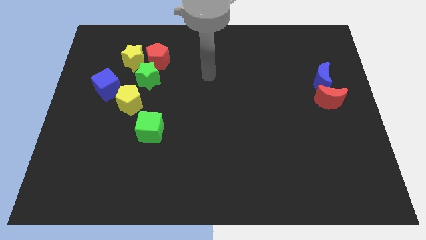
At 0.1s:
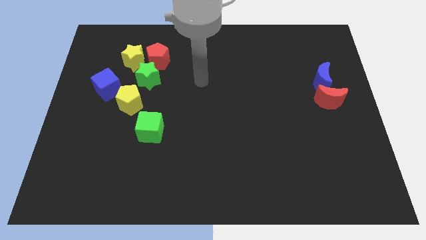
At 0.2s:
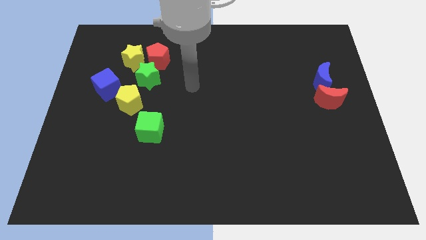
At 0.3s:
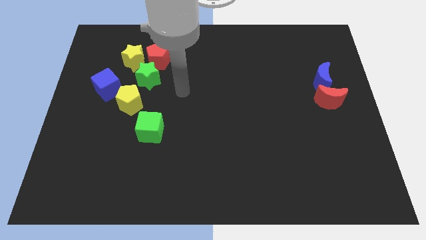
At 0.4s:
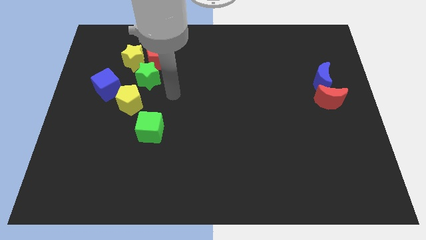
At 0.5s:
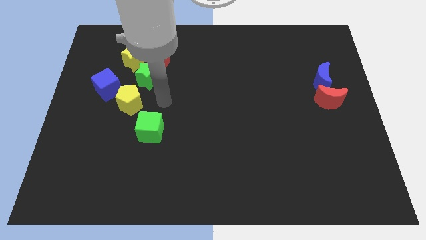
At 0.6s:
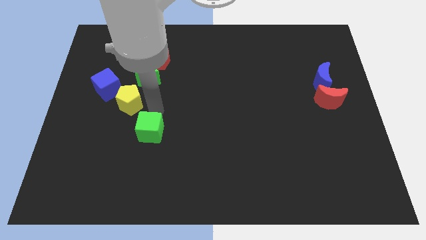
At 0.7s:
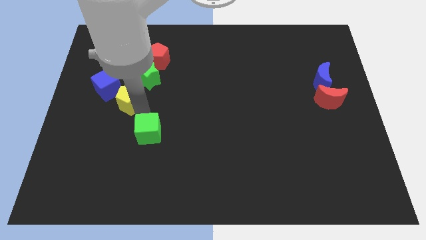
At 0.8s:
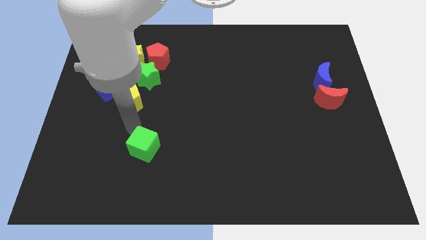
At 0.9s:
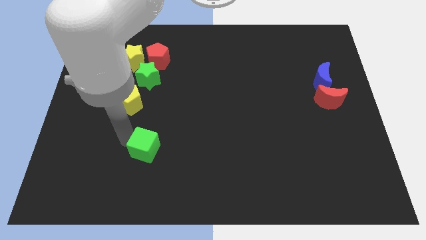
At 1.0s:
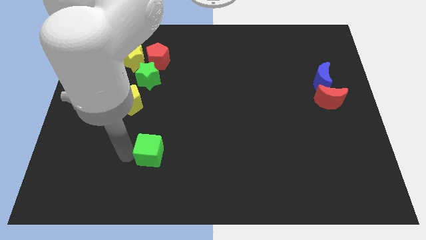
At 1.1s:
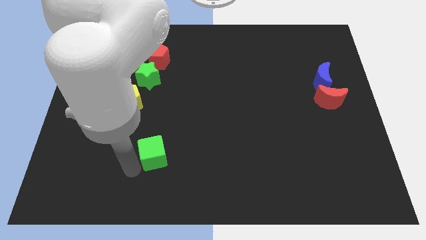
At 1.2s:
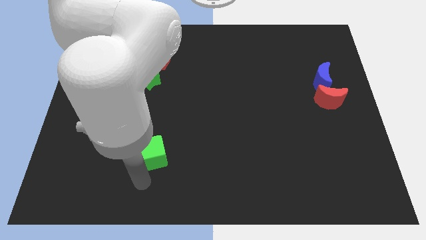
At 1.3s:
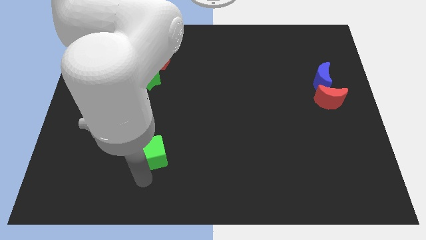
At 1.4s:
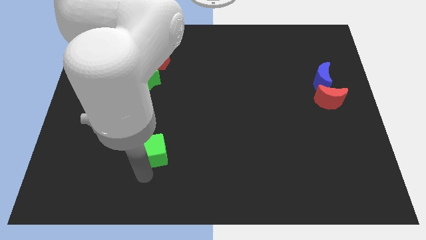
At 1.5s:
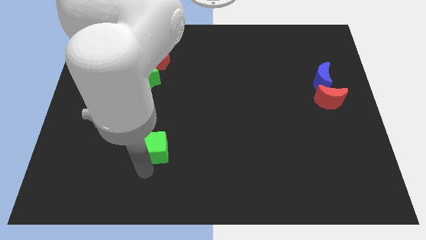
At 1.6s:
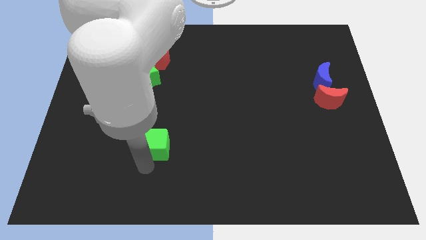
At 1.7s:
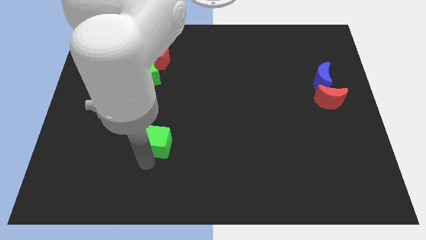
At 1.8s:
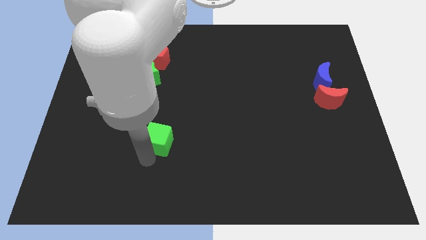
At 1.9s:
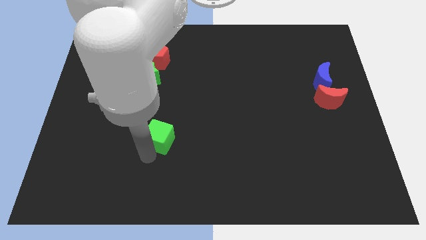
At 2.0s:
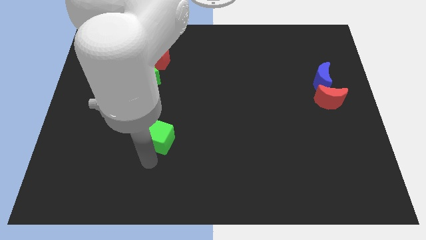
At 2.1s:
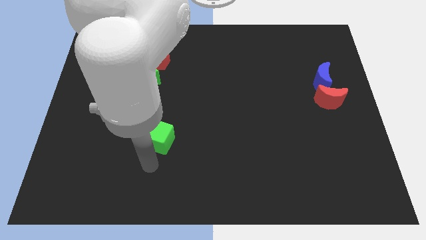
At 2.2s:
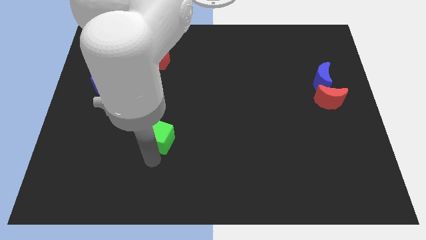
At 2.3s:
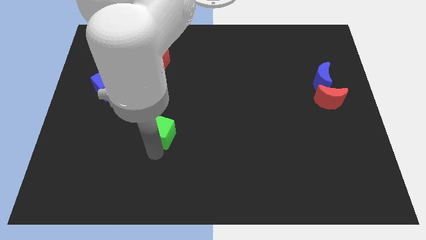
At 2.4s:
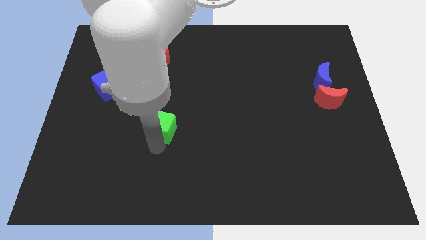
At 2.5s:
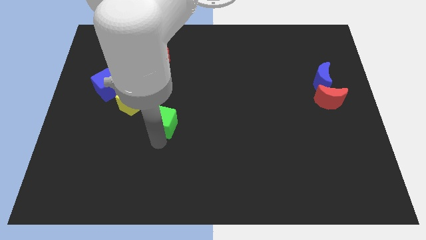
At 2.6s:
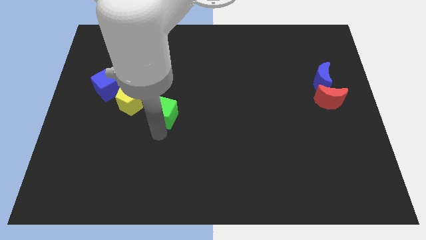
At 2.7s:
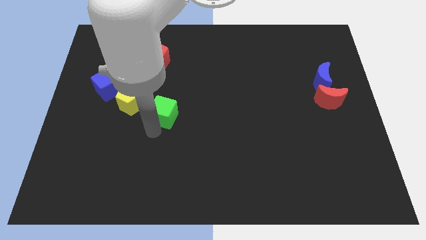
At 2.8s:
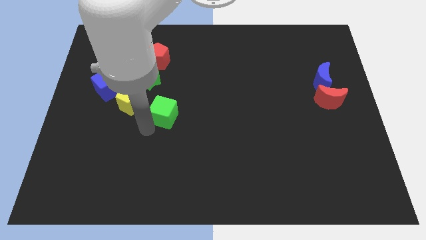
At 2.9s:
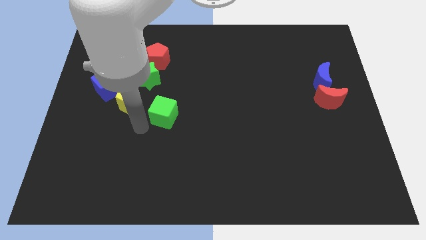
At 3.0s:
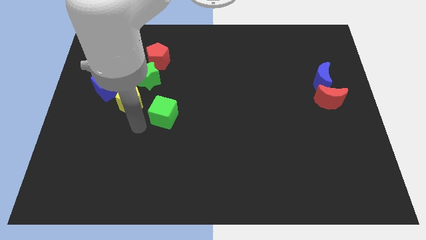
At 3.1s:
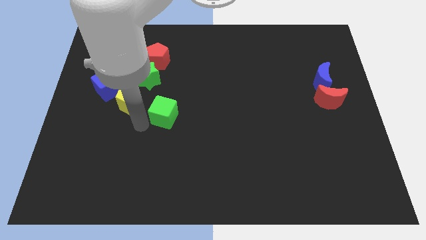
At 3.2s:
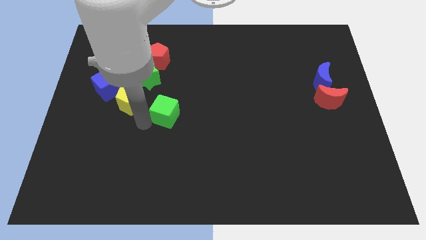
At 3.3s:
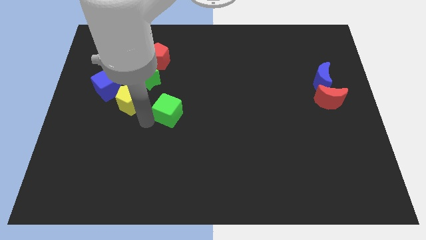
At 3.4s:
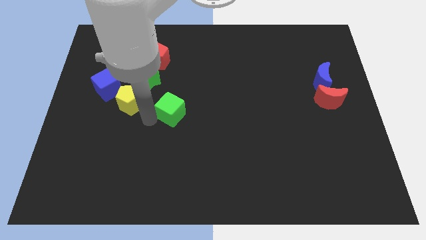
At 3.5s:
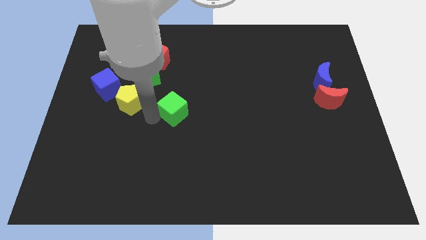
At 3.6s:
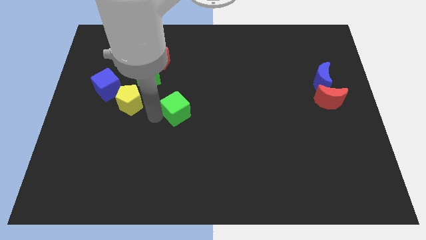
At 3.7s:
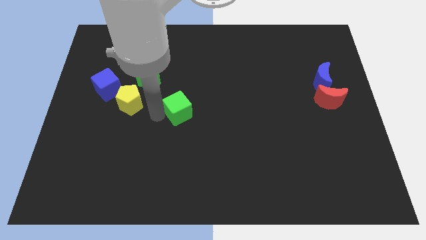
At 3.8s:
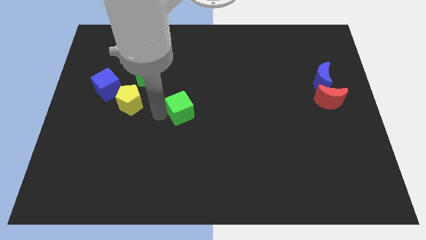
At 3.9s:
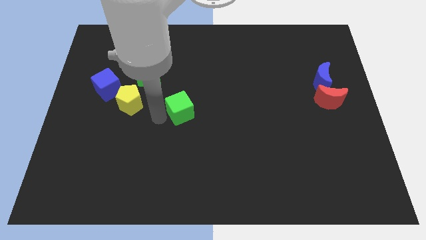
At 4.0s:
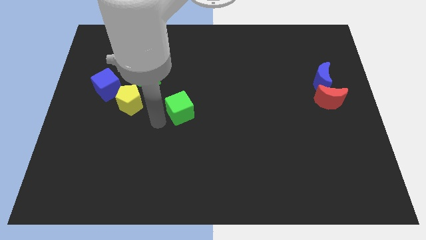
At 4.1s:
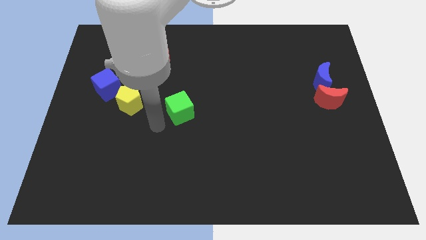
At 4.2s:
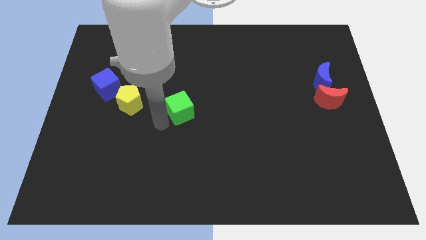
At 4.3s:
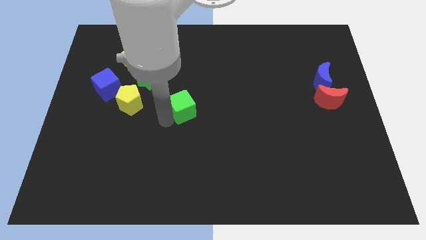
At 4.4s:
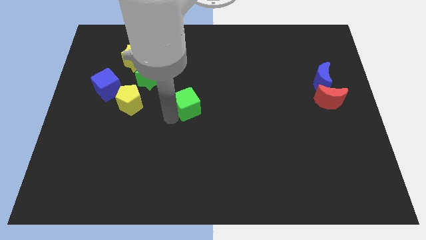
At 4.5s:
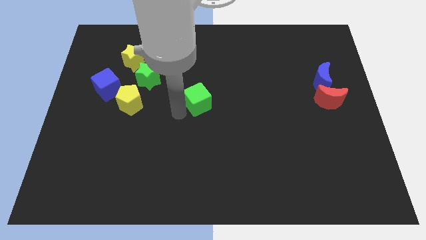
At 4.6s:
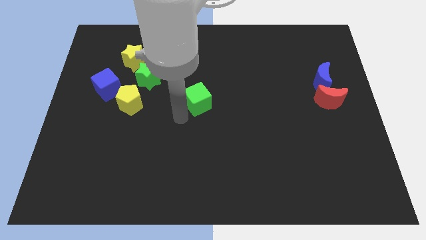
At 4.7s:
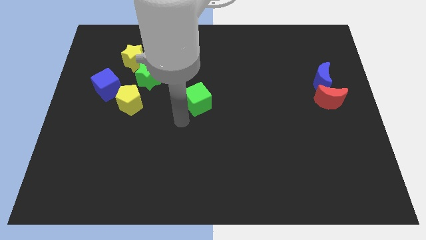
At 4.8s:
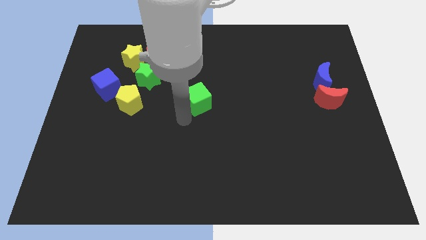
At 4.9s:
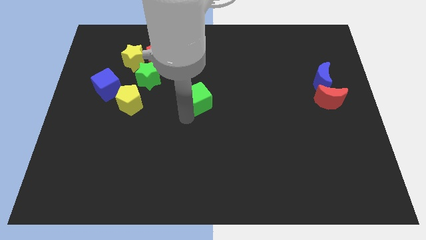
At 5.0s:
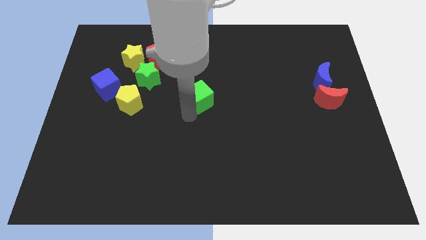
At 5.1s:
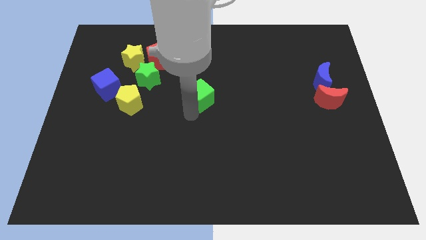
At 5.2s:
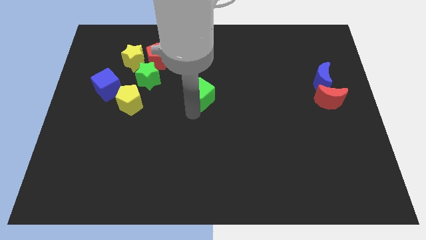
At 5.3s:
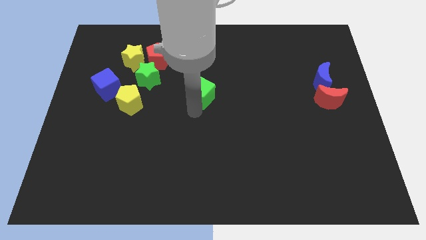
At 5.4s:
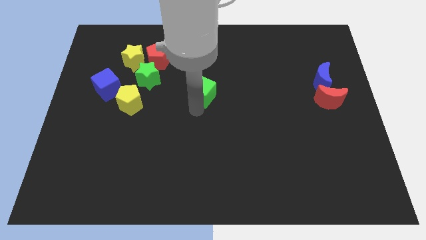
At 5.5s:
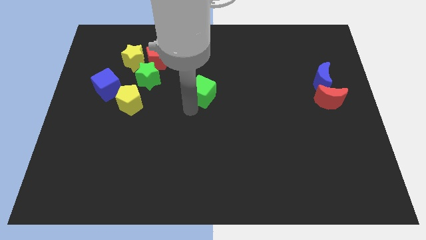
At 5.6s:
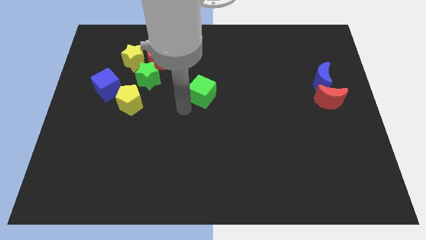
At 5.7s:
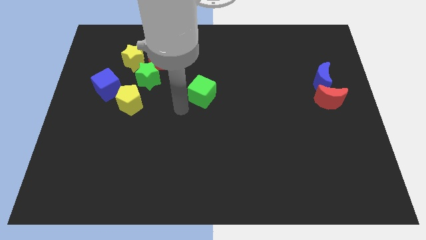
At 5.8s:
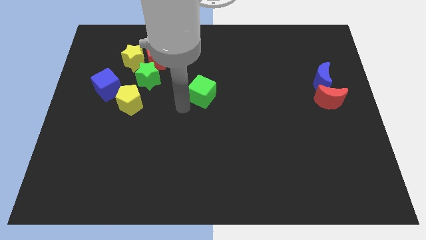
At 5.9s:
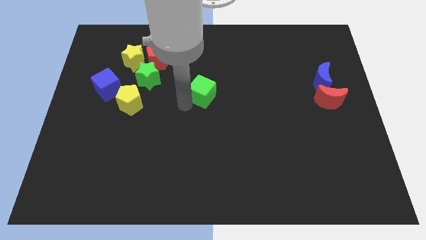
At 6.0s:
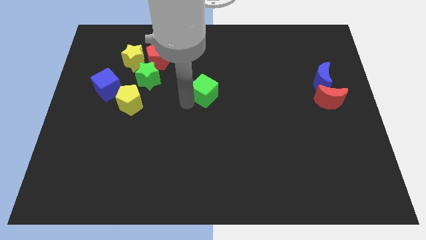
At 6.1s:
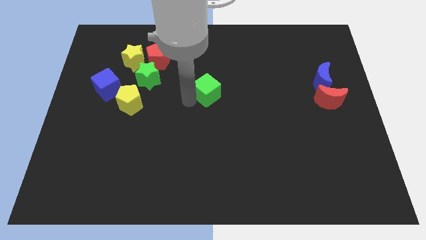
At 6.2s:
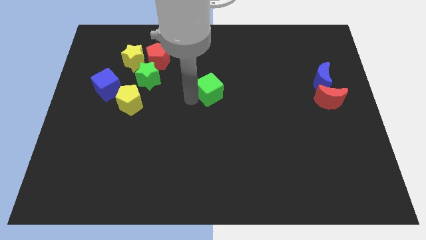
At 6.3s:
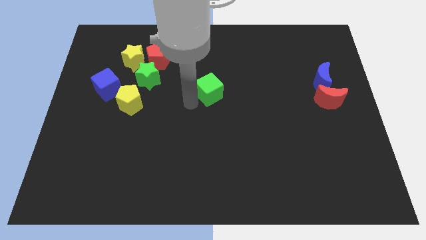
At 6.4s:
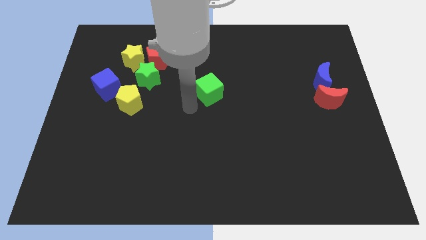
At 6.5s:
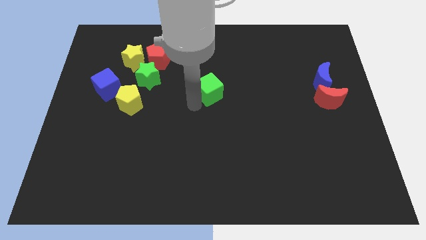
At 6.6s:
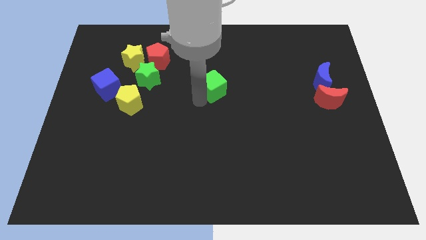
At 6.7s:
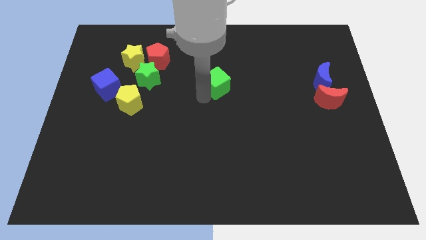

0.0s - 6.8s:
push the green cube up and to the right

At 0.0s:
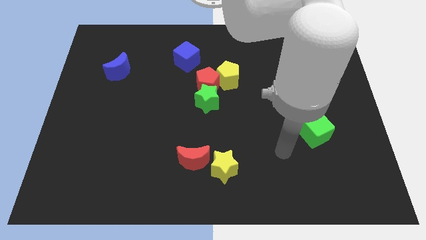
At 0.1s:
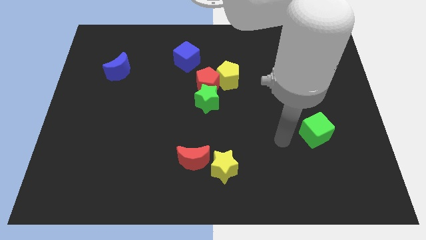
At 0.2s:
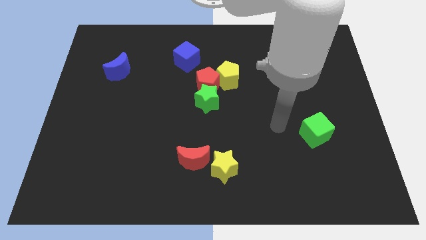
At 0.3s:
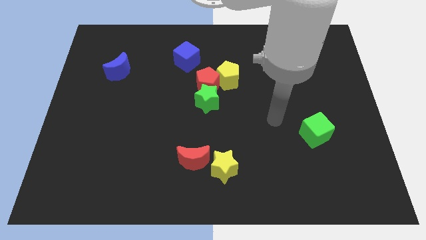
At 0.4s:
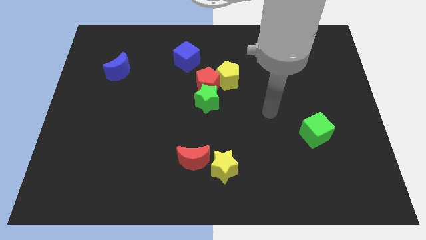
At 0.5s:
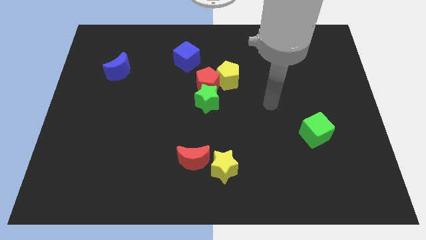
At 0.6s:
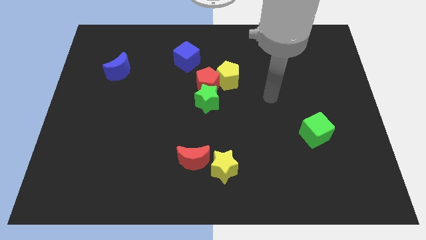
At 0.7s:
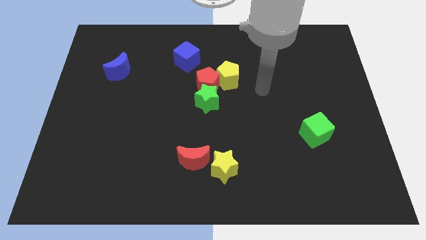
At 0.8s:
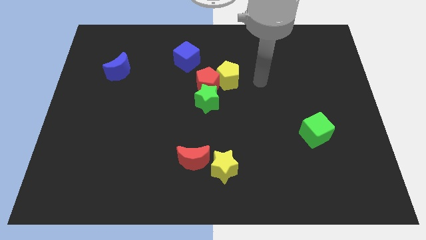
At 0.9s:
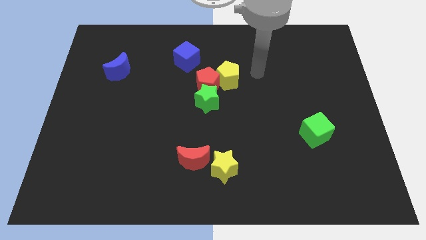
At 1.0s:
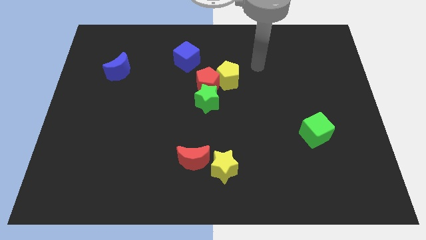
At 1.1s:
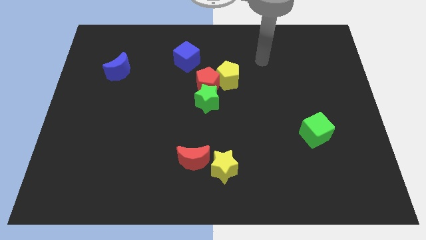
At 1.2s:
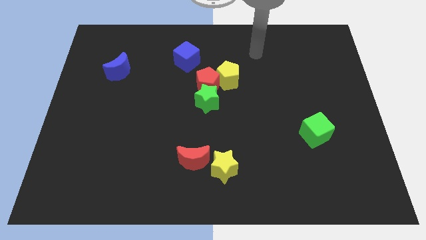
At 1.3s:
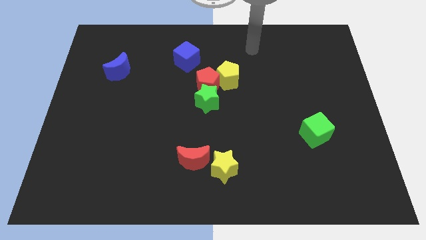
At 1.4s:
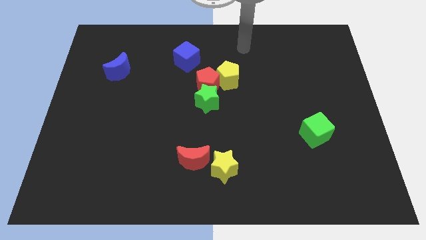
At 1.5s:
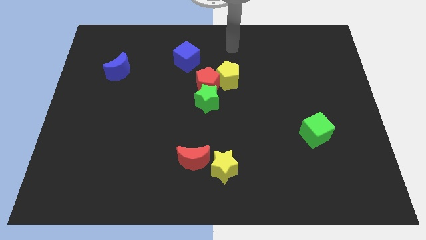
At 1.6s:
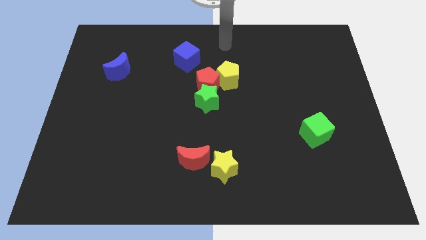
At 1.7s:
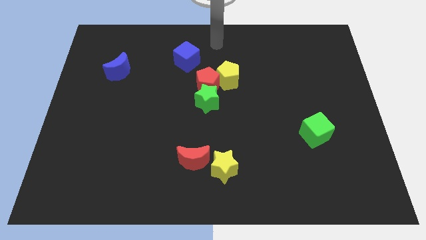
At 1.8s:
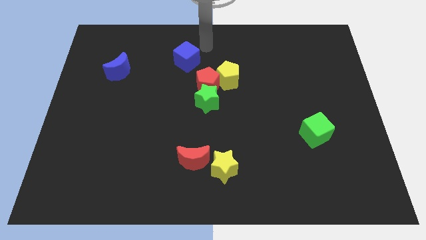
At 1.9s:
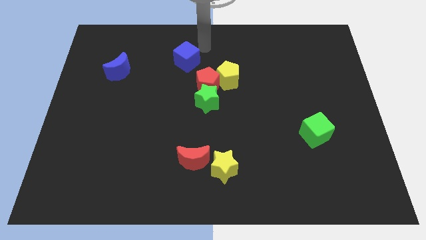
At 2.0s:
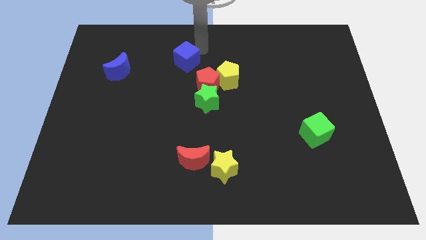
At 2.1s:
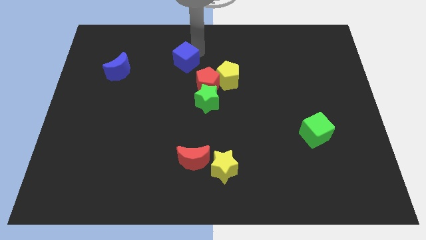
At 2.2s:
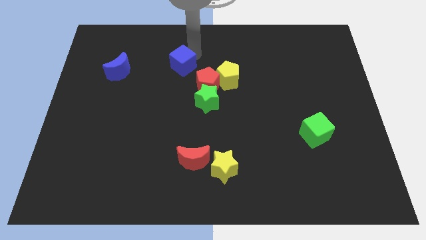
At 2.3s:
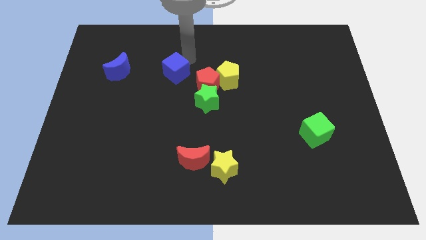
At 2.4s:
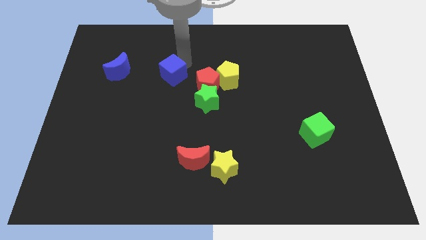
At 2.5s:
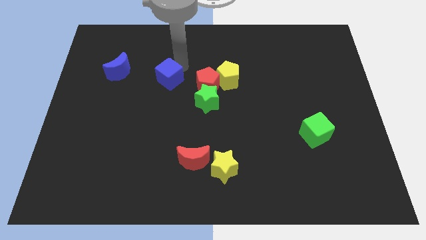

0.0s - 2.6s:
slightly slide the blue cube downwards and to the left diagonally
